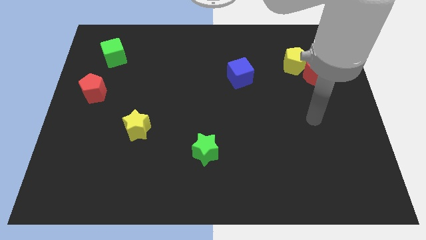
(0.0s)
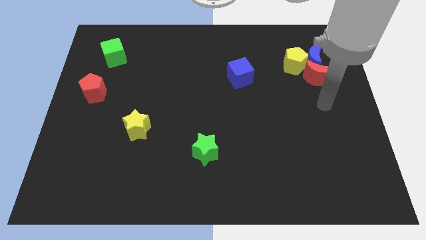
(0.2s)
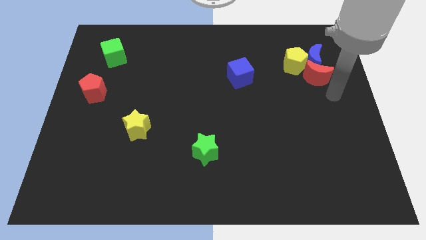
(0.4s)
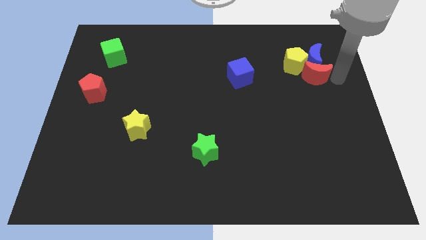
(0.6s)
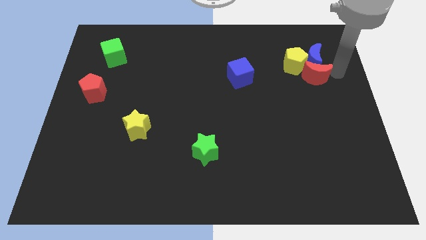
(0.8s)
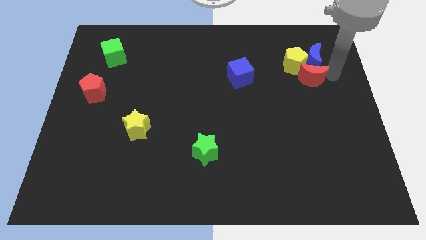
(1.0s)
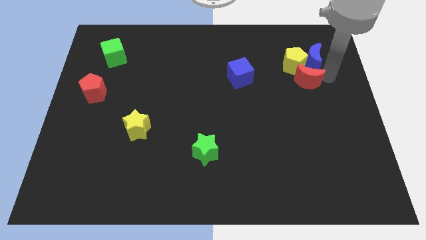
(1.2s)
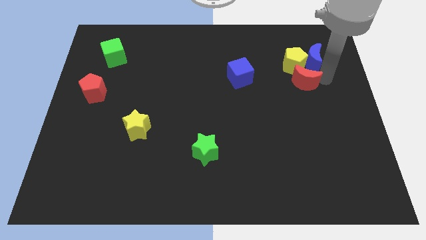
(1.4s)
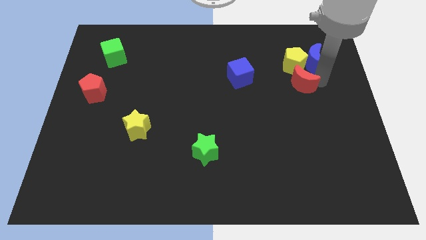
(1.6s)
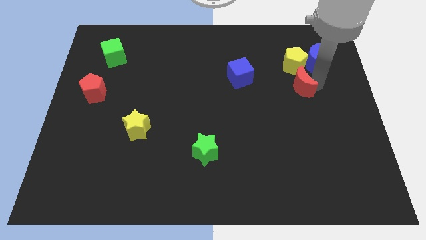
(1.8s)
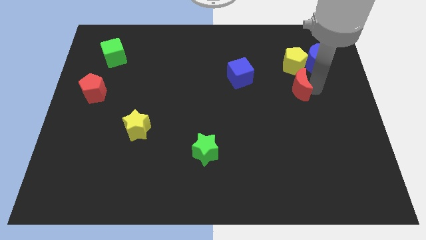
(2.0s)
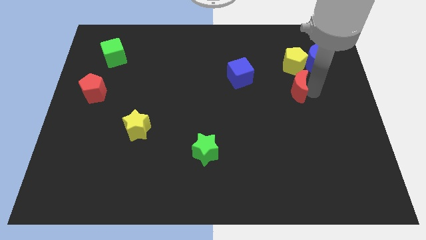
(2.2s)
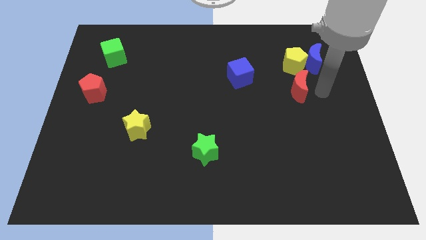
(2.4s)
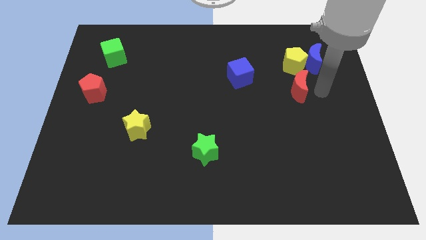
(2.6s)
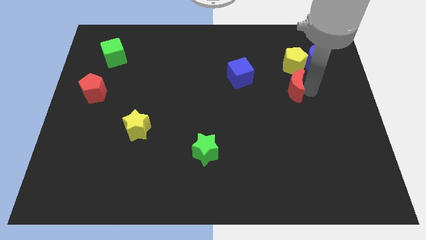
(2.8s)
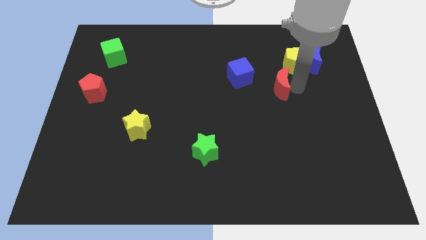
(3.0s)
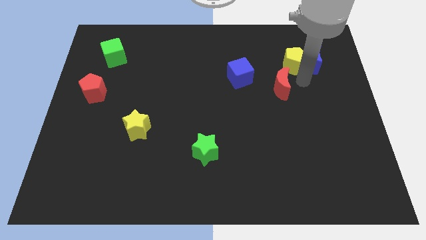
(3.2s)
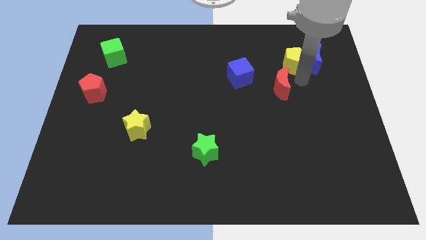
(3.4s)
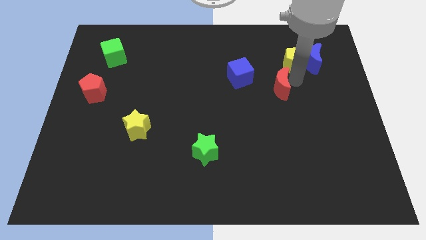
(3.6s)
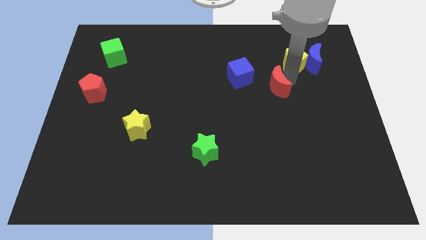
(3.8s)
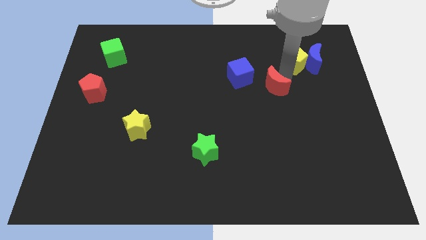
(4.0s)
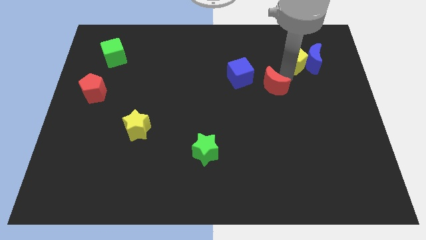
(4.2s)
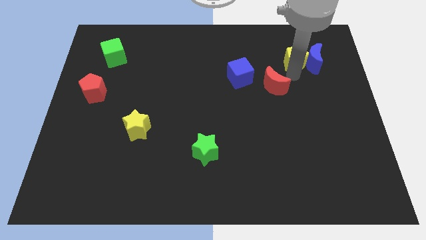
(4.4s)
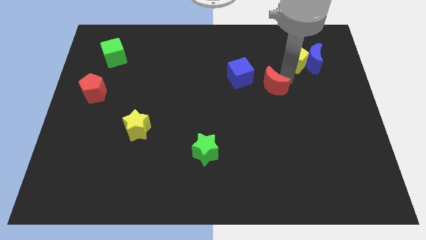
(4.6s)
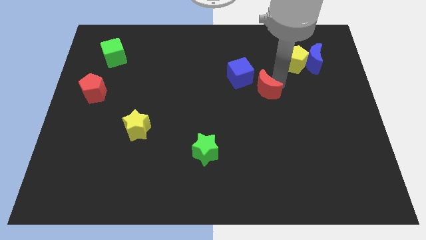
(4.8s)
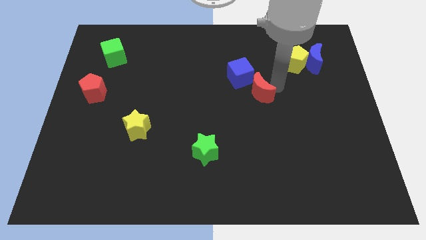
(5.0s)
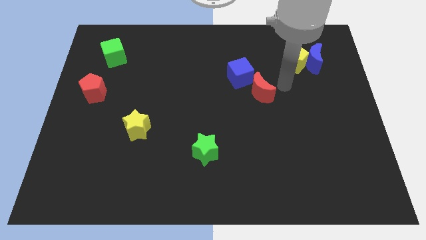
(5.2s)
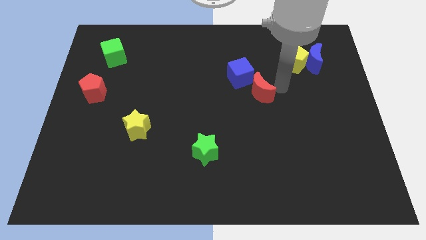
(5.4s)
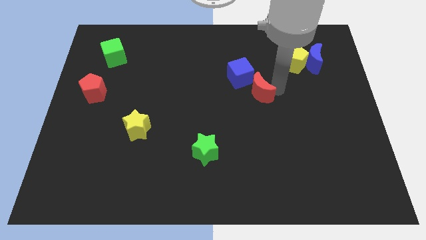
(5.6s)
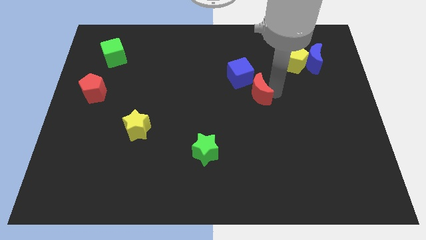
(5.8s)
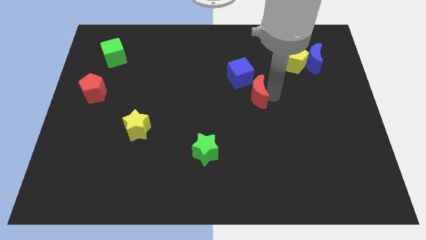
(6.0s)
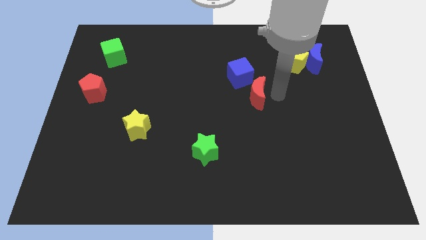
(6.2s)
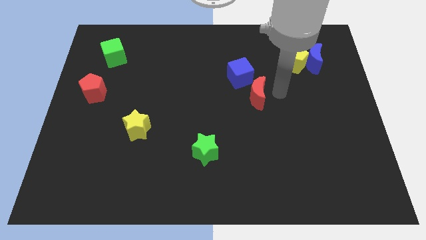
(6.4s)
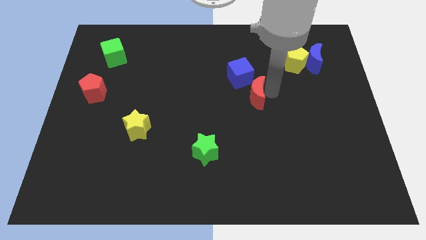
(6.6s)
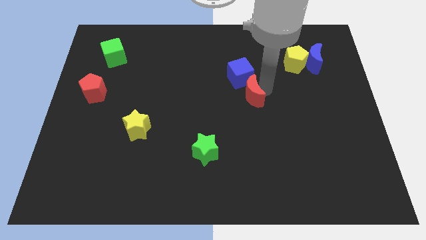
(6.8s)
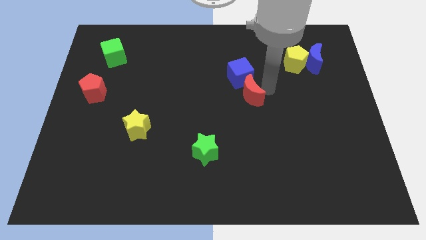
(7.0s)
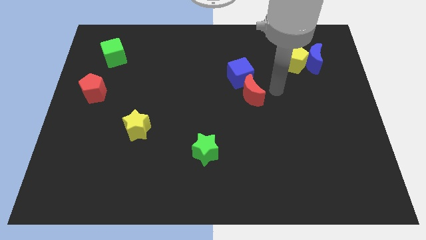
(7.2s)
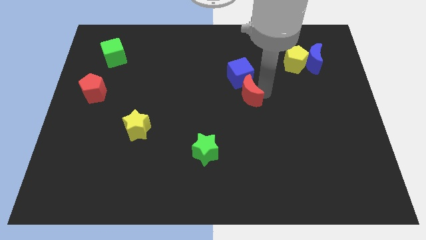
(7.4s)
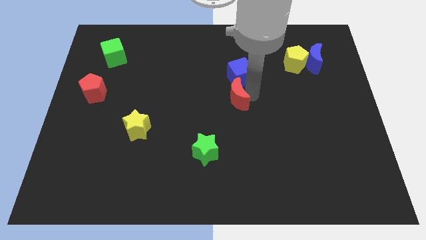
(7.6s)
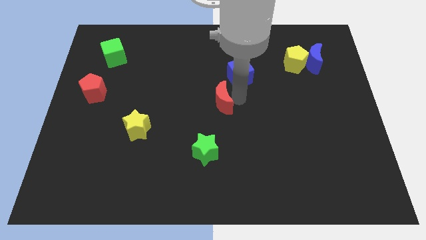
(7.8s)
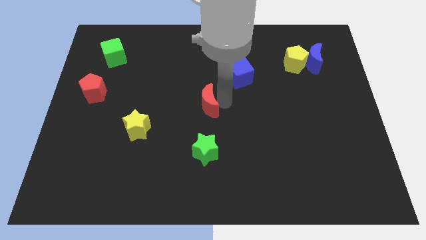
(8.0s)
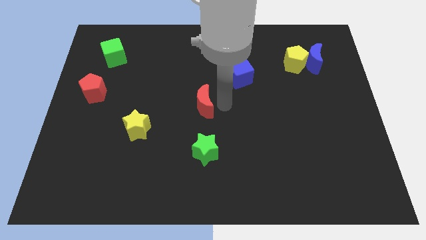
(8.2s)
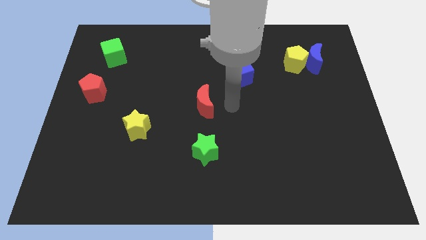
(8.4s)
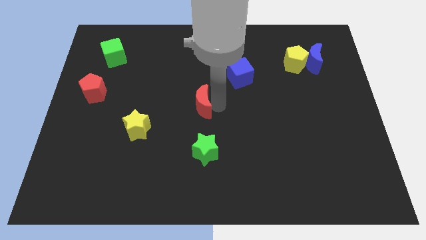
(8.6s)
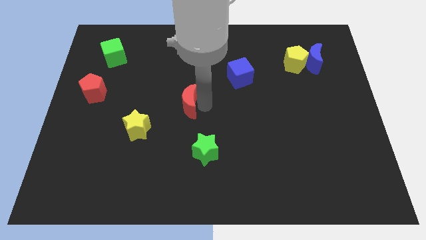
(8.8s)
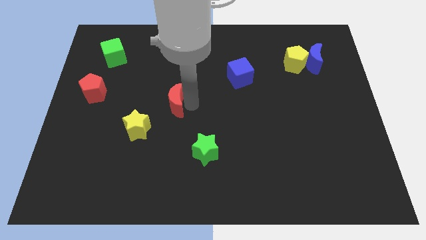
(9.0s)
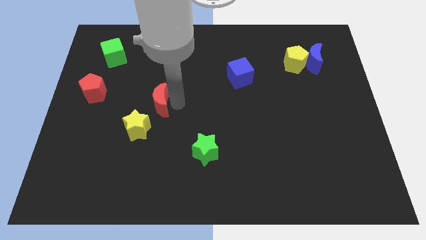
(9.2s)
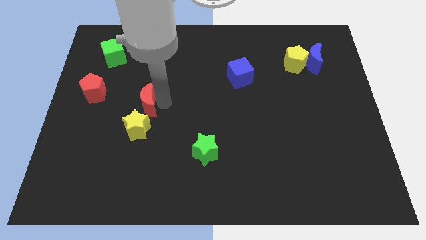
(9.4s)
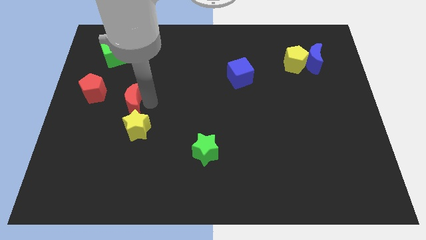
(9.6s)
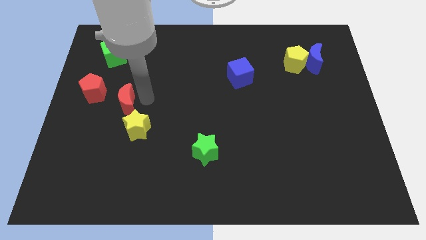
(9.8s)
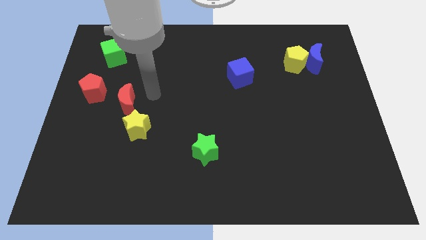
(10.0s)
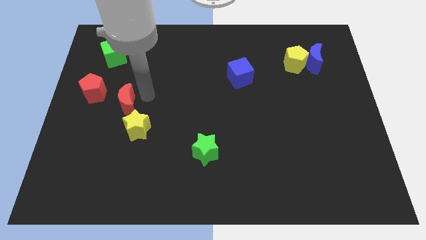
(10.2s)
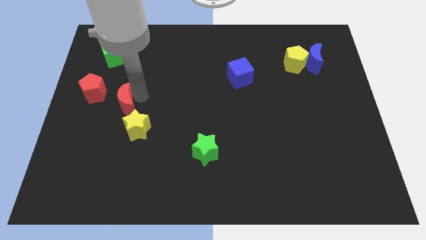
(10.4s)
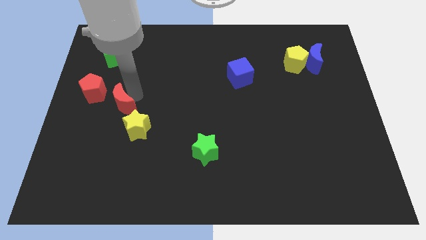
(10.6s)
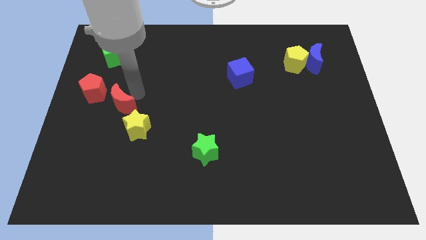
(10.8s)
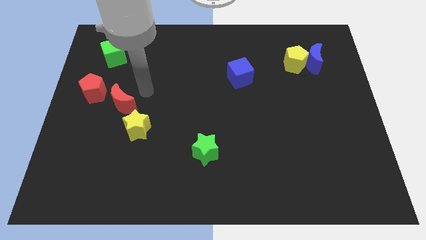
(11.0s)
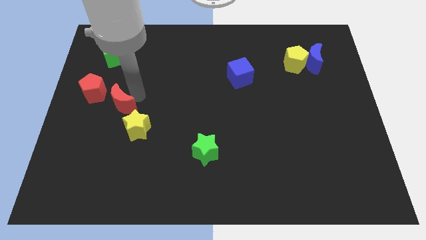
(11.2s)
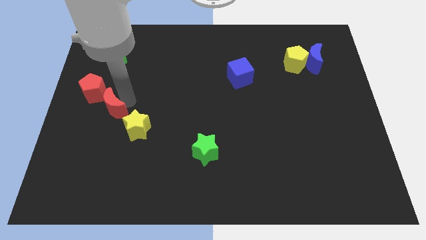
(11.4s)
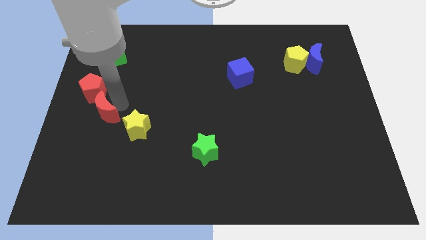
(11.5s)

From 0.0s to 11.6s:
slide the red moon to the bottom side of the red pentagon

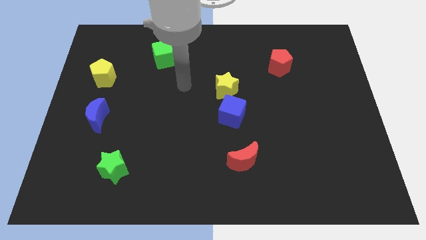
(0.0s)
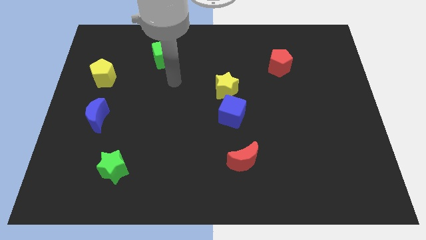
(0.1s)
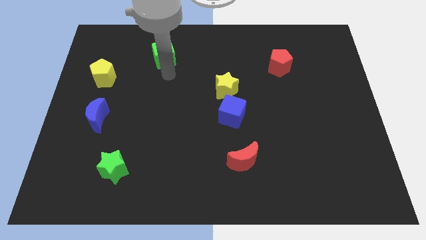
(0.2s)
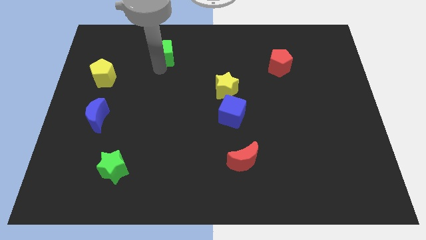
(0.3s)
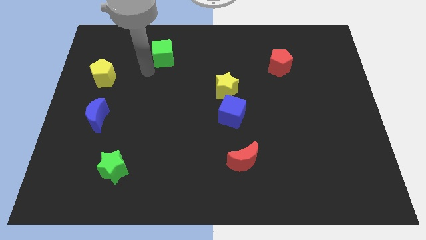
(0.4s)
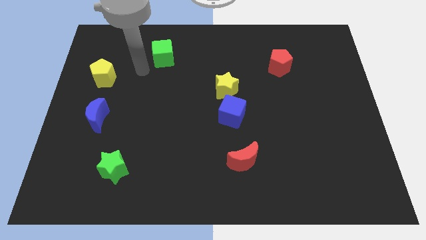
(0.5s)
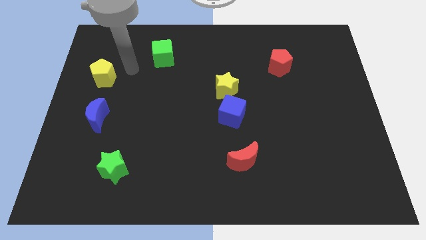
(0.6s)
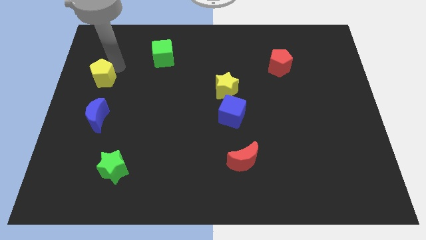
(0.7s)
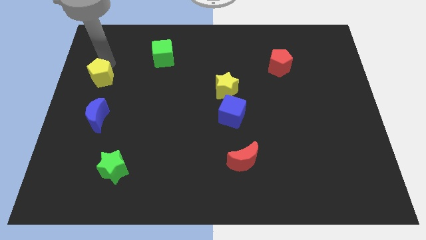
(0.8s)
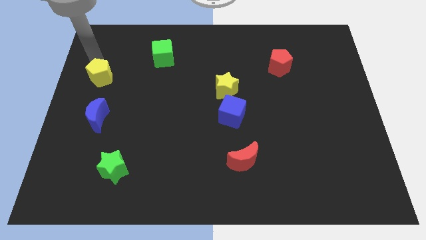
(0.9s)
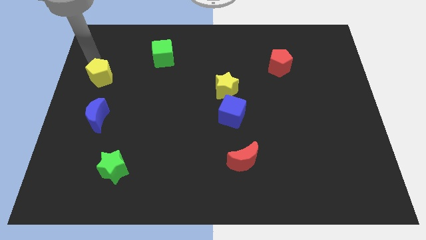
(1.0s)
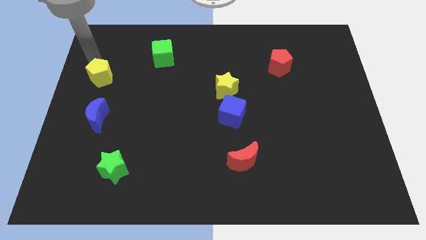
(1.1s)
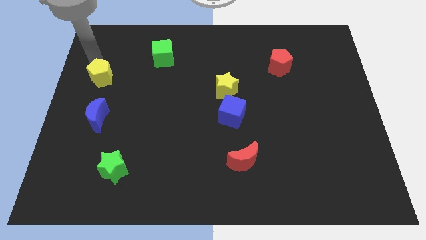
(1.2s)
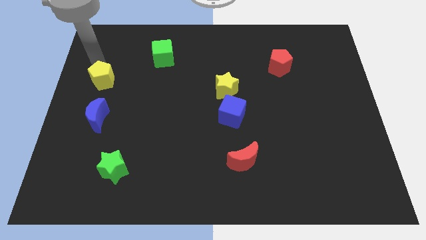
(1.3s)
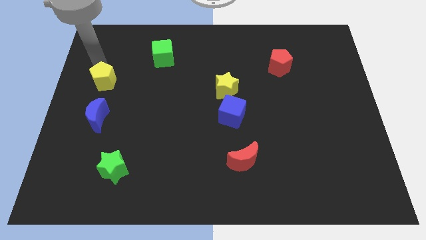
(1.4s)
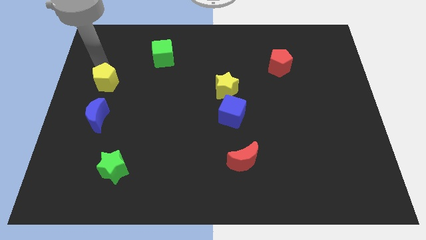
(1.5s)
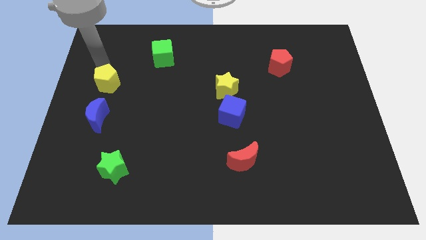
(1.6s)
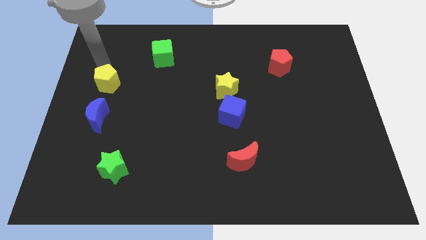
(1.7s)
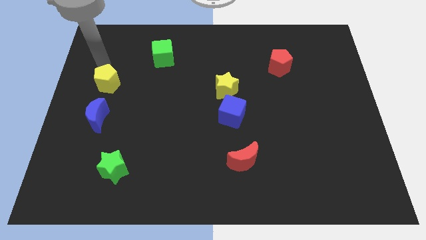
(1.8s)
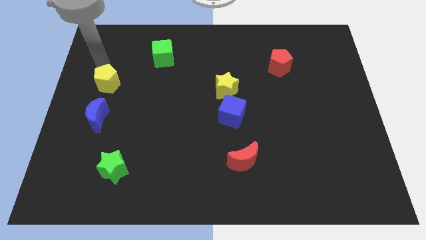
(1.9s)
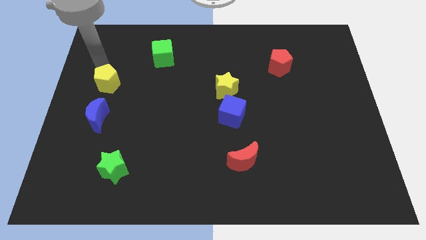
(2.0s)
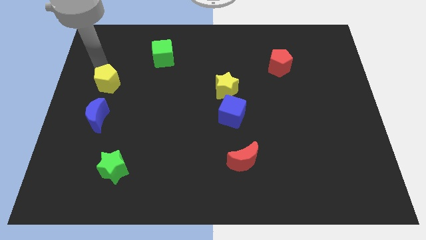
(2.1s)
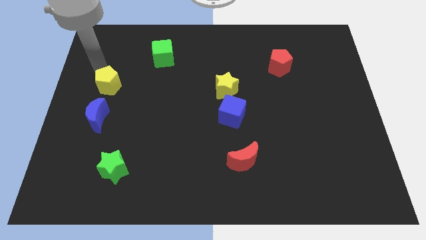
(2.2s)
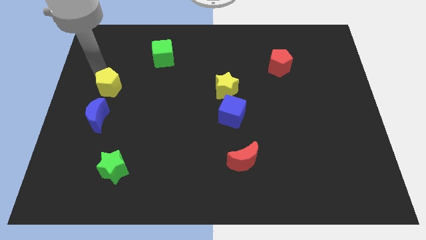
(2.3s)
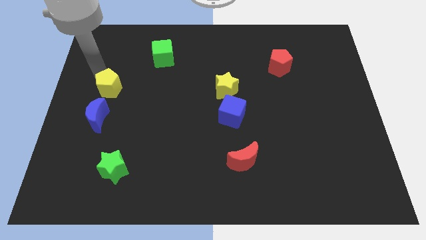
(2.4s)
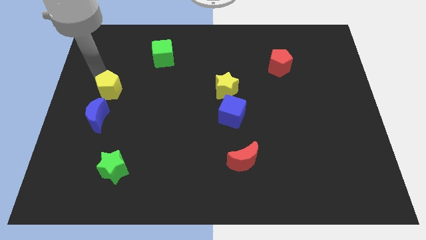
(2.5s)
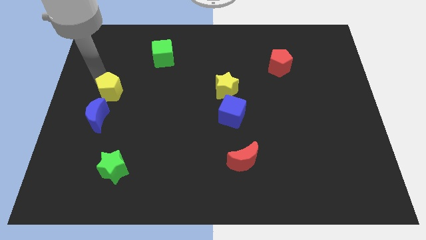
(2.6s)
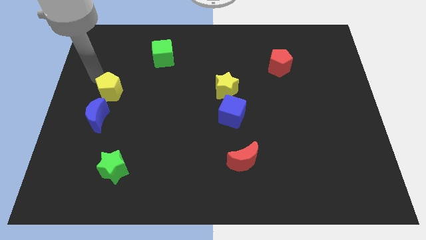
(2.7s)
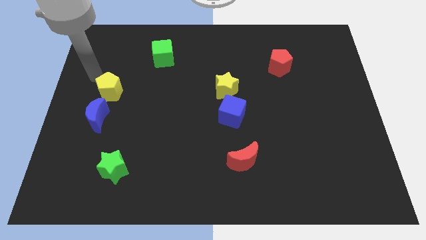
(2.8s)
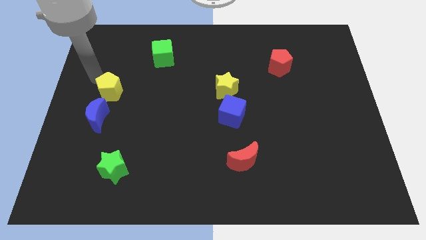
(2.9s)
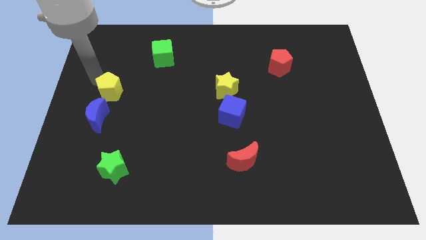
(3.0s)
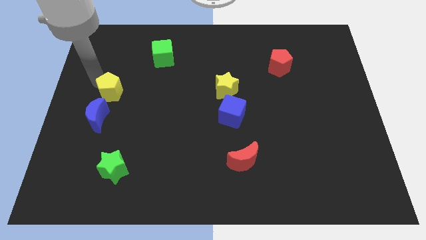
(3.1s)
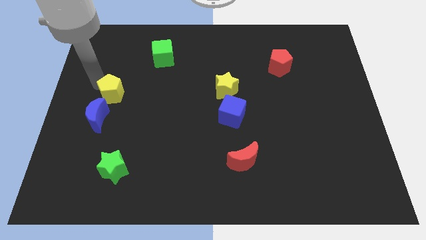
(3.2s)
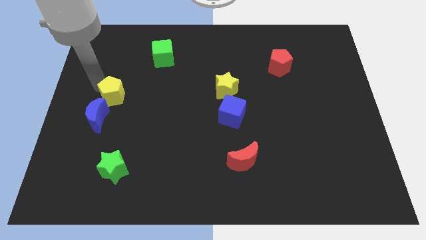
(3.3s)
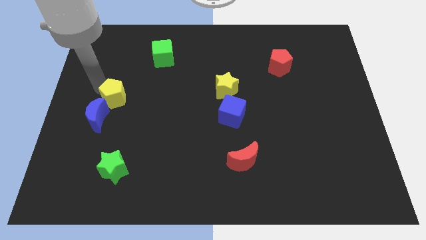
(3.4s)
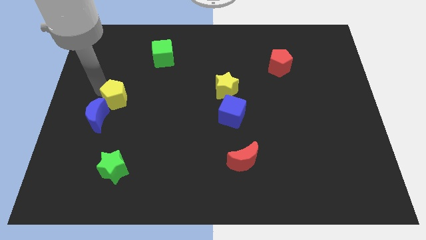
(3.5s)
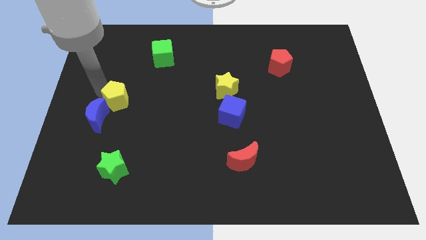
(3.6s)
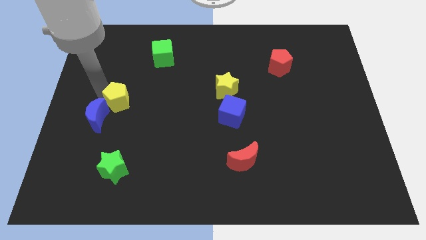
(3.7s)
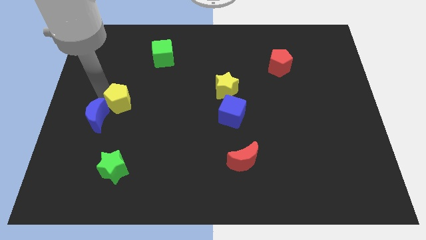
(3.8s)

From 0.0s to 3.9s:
move the yellow pentagon to the right of the blue moon
